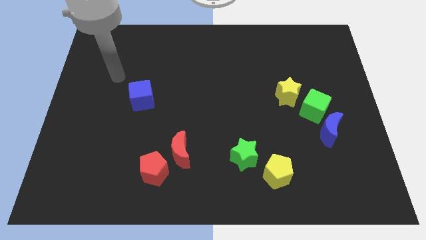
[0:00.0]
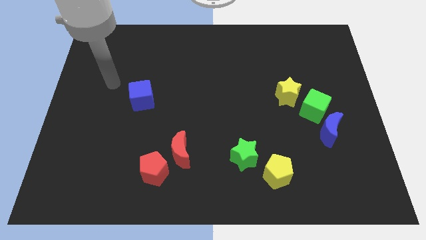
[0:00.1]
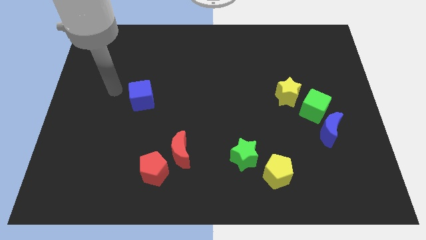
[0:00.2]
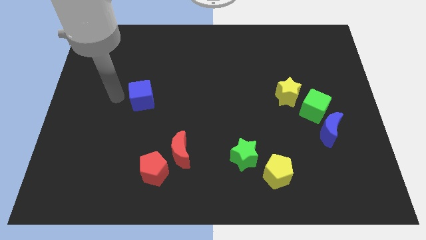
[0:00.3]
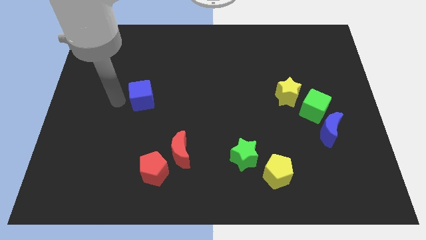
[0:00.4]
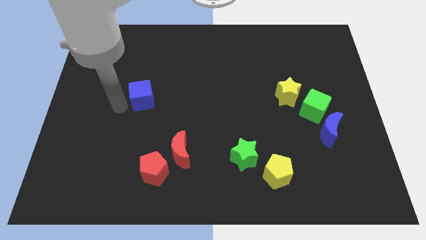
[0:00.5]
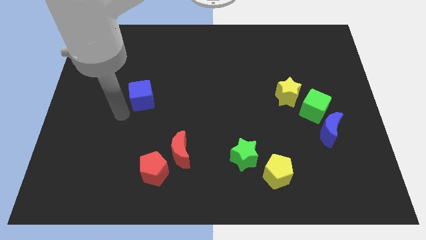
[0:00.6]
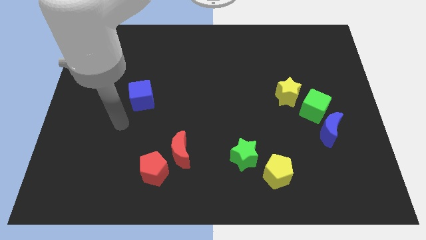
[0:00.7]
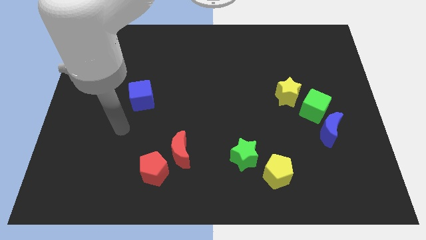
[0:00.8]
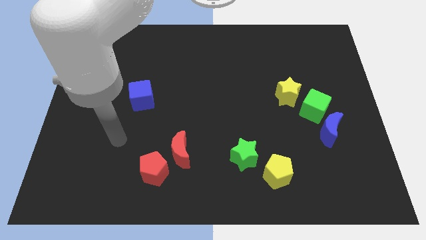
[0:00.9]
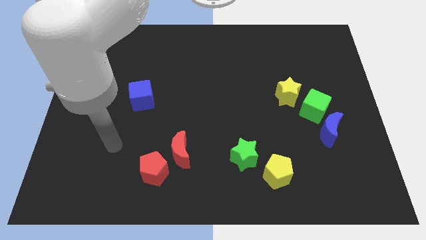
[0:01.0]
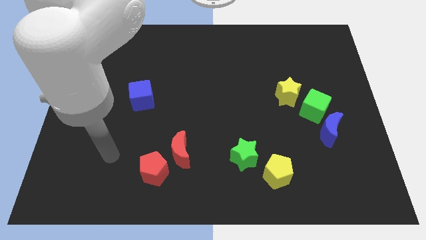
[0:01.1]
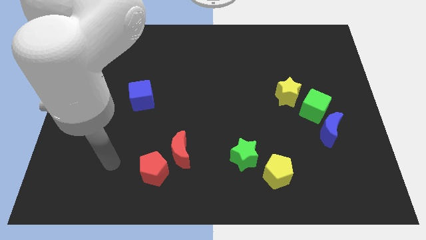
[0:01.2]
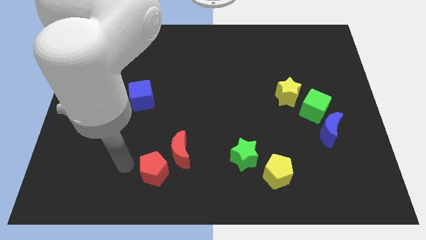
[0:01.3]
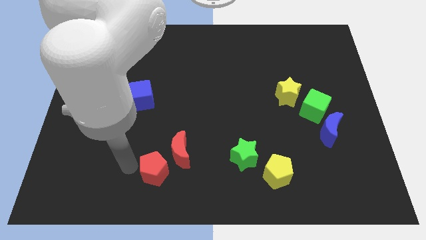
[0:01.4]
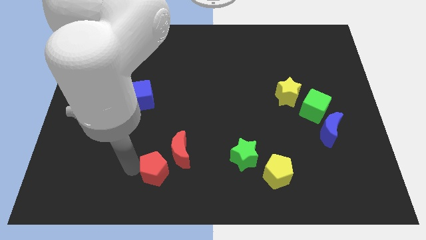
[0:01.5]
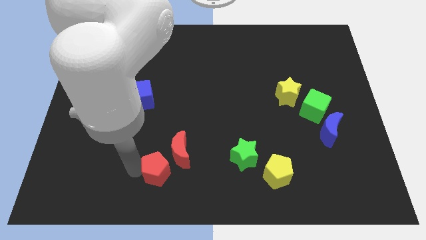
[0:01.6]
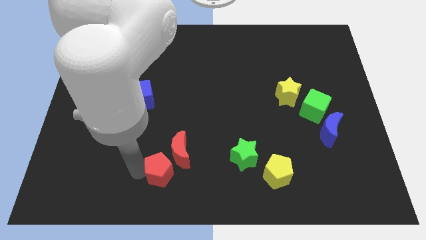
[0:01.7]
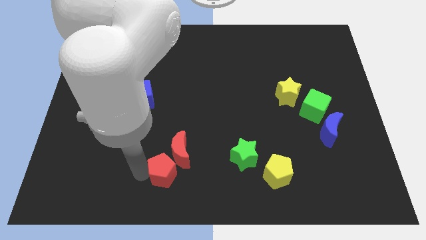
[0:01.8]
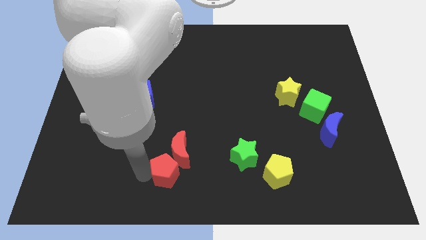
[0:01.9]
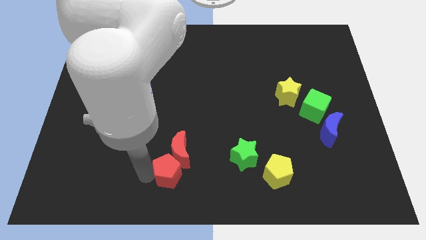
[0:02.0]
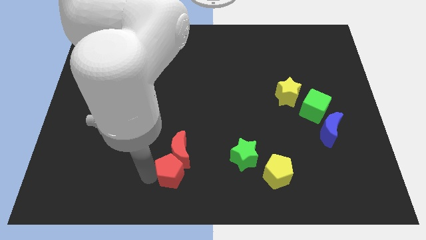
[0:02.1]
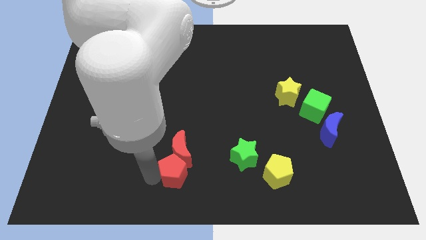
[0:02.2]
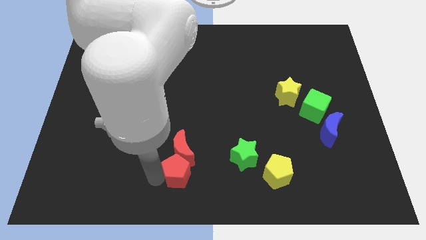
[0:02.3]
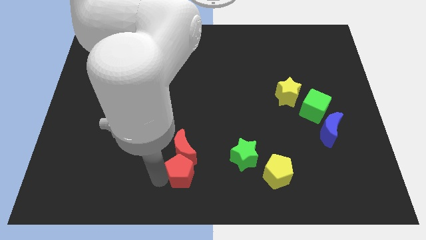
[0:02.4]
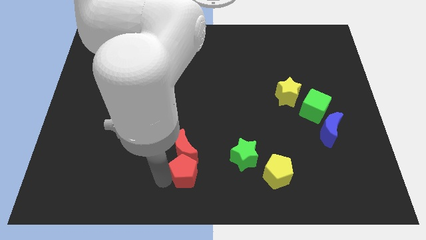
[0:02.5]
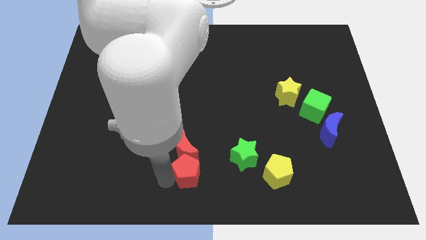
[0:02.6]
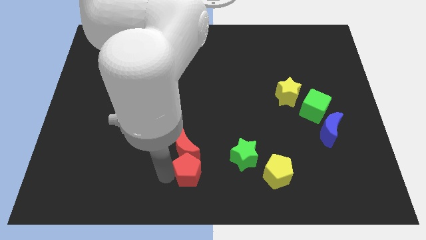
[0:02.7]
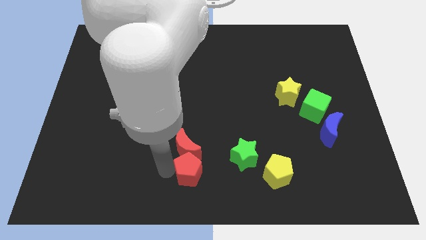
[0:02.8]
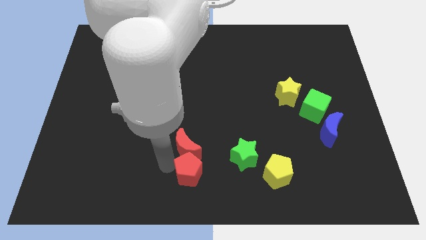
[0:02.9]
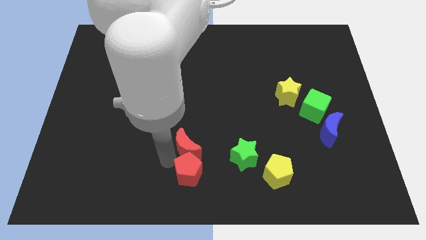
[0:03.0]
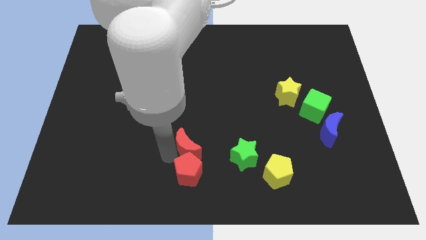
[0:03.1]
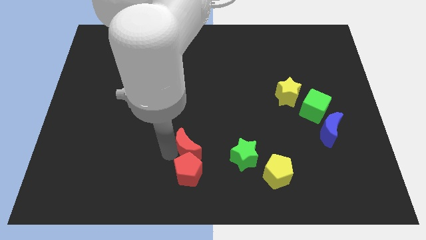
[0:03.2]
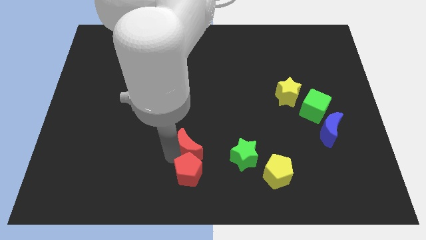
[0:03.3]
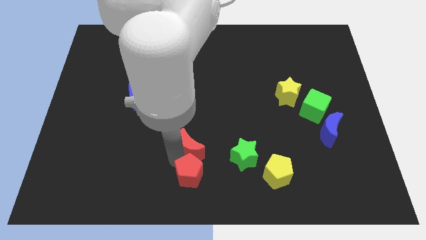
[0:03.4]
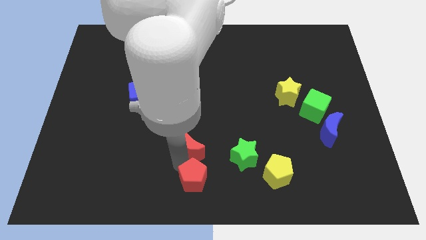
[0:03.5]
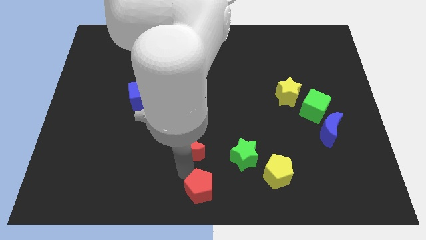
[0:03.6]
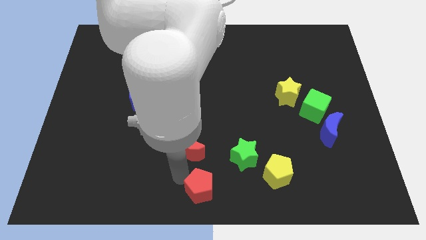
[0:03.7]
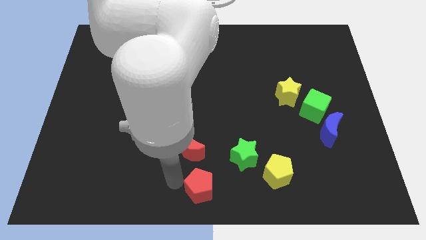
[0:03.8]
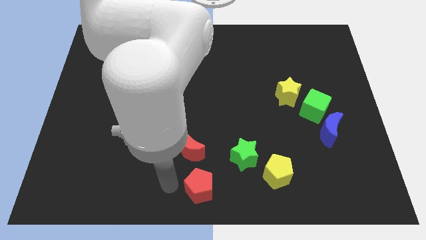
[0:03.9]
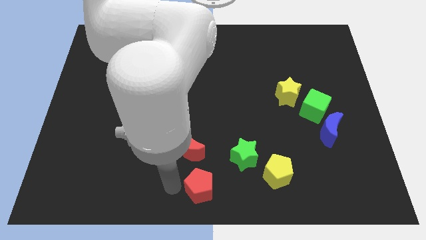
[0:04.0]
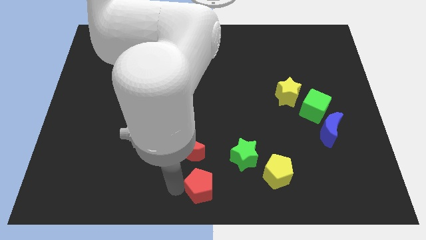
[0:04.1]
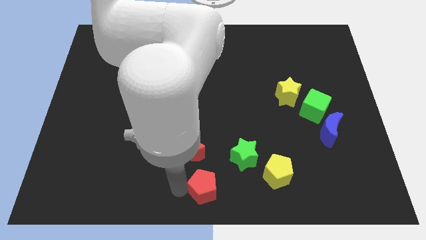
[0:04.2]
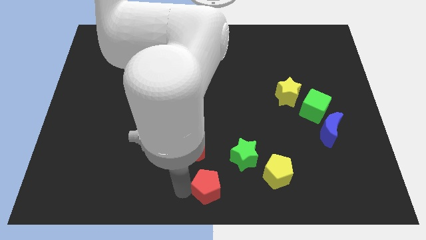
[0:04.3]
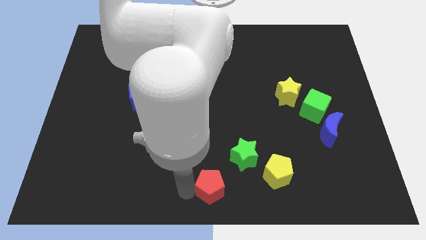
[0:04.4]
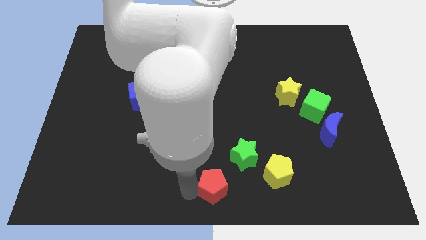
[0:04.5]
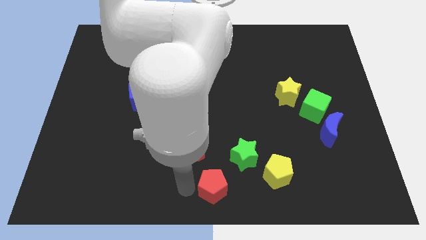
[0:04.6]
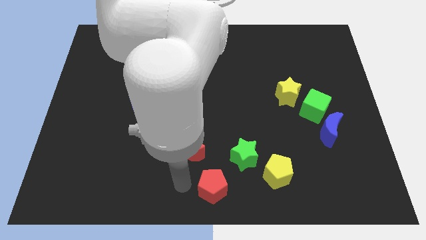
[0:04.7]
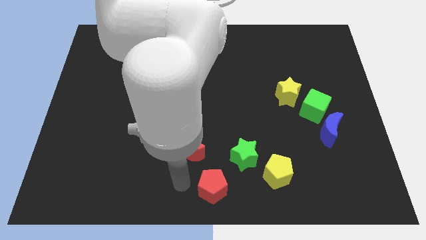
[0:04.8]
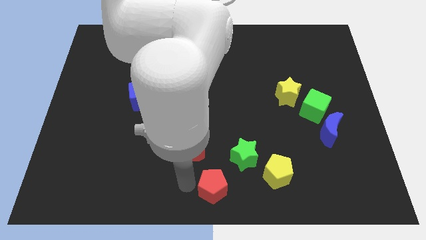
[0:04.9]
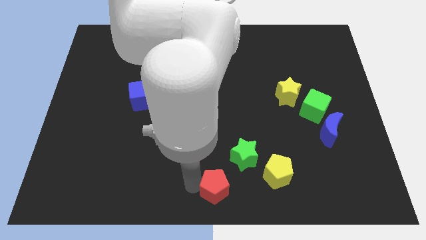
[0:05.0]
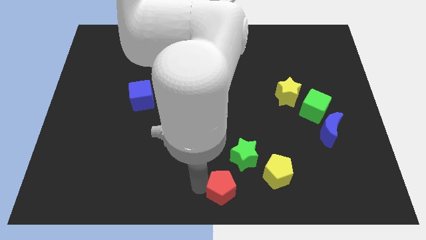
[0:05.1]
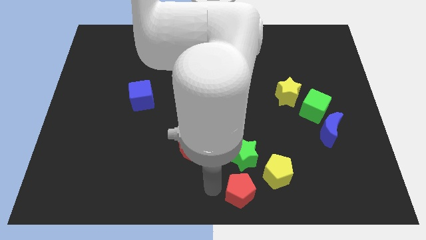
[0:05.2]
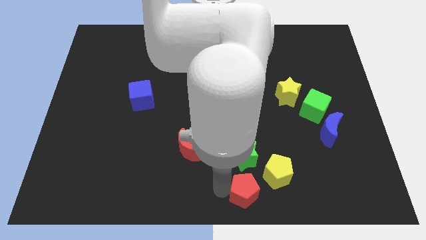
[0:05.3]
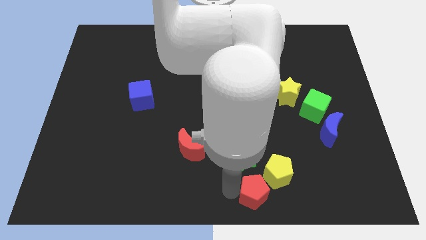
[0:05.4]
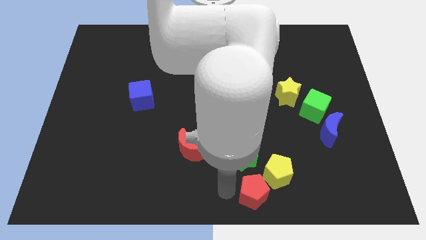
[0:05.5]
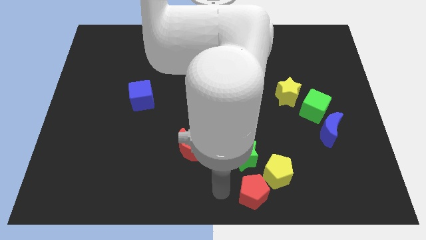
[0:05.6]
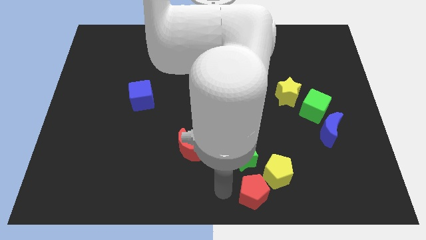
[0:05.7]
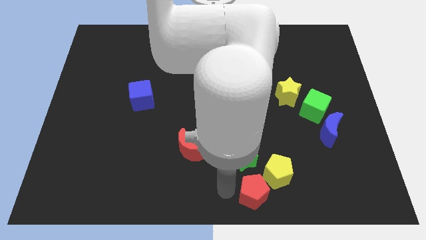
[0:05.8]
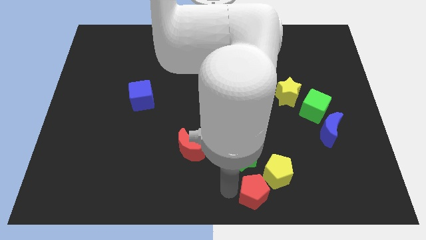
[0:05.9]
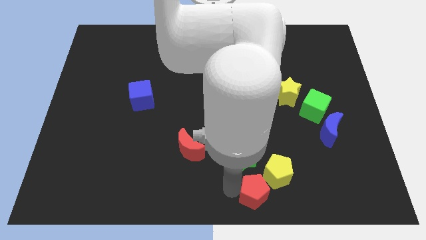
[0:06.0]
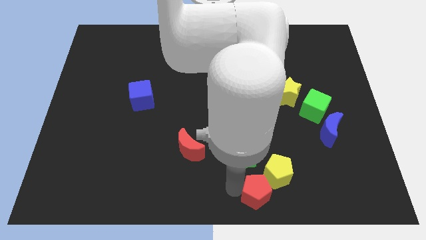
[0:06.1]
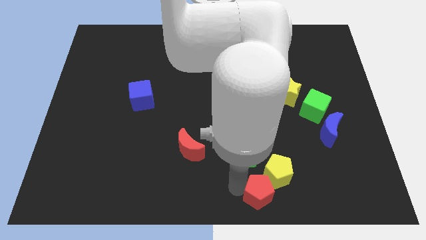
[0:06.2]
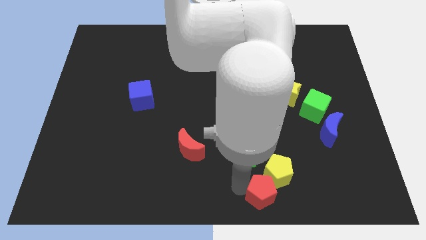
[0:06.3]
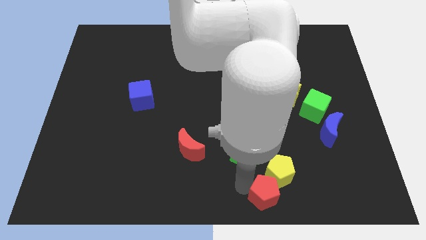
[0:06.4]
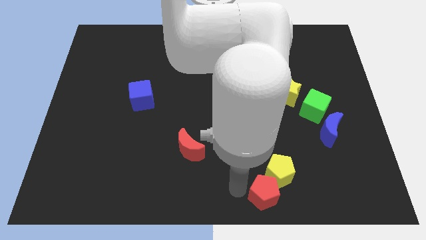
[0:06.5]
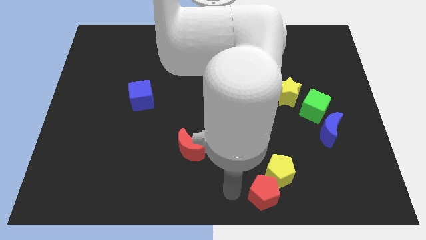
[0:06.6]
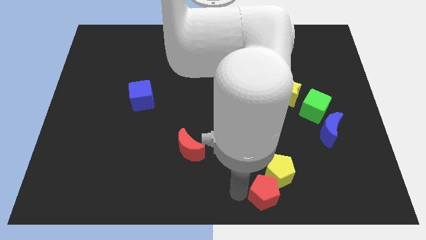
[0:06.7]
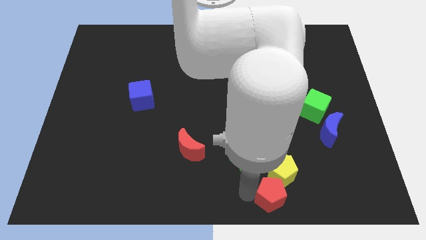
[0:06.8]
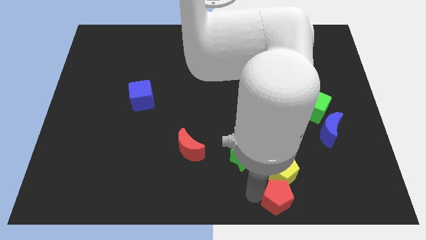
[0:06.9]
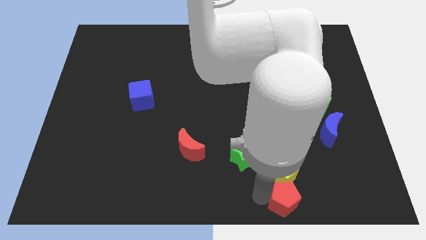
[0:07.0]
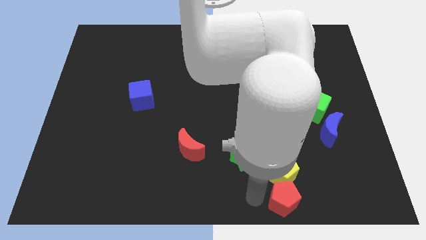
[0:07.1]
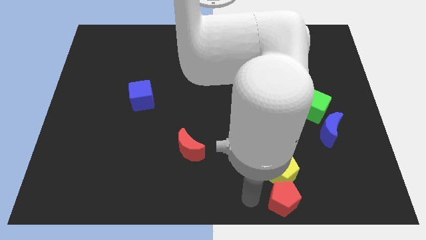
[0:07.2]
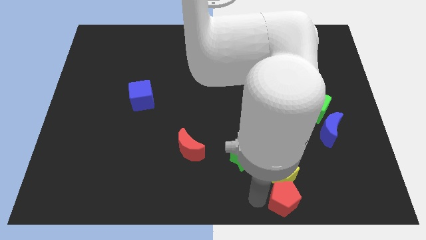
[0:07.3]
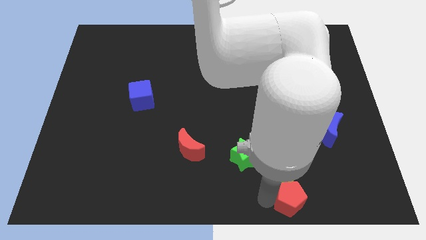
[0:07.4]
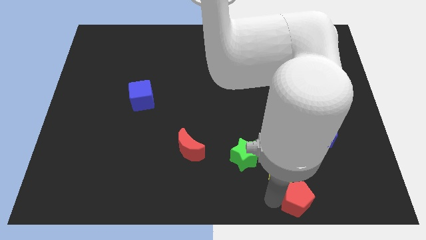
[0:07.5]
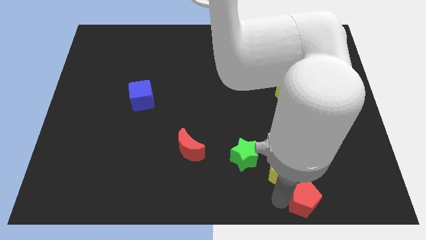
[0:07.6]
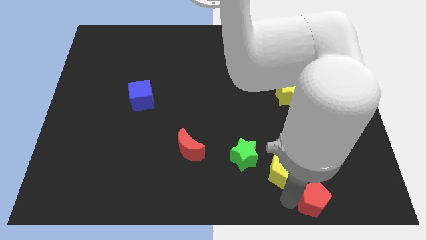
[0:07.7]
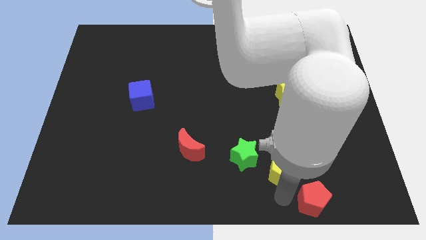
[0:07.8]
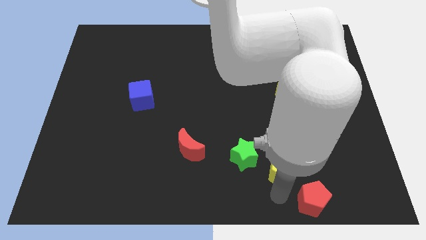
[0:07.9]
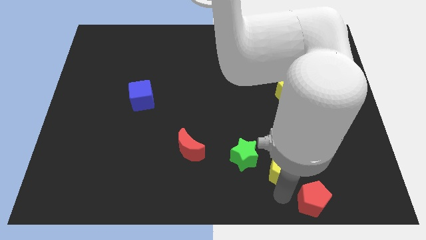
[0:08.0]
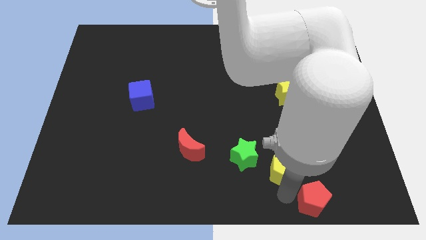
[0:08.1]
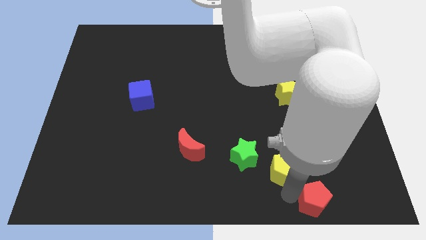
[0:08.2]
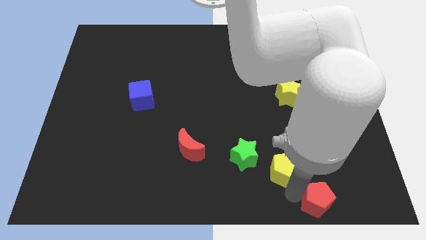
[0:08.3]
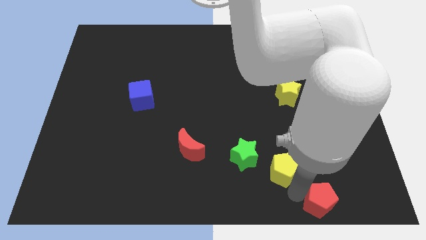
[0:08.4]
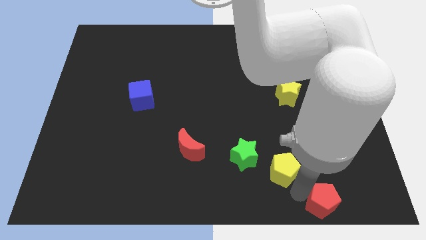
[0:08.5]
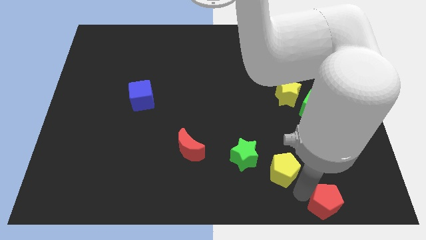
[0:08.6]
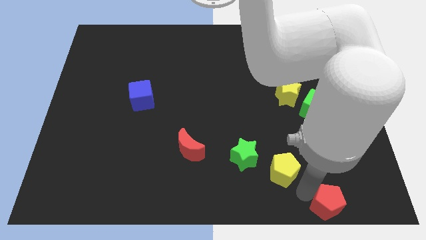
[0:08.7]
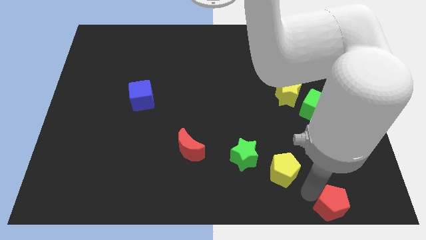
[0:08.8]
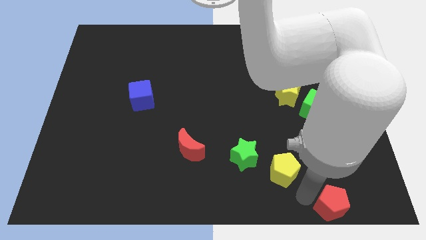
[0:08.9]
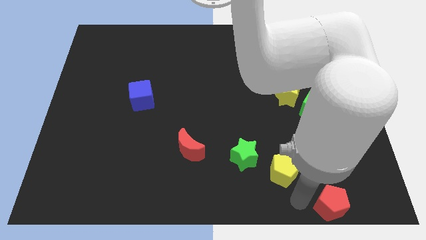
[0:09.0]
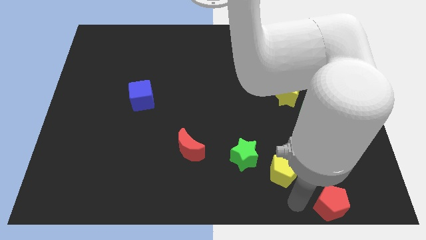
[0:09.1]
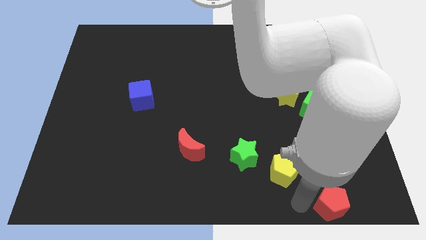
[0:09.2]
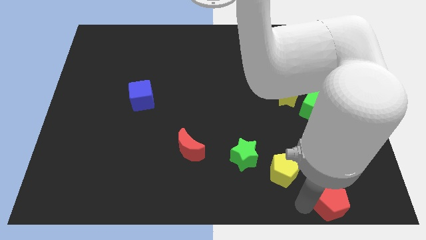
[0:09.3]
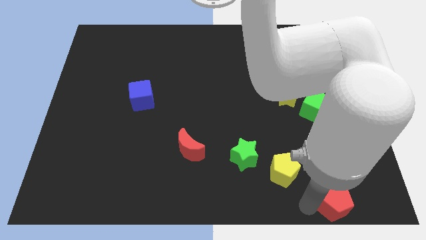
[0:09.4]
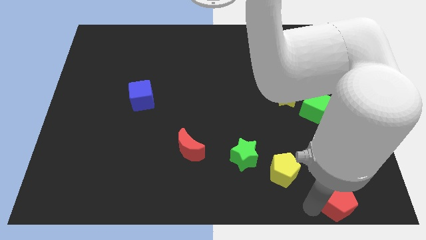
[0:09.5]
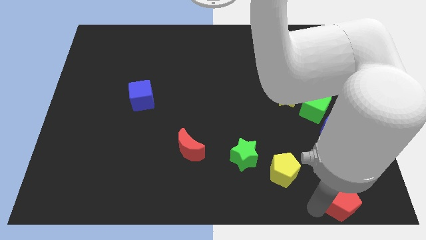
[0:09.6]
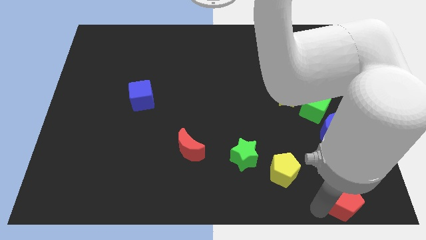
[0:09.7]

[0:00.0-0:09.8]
push the red pentagon to the lower right corner
